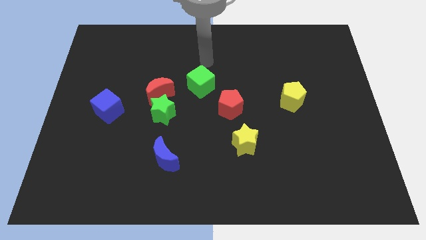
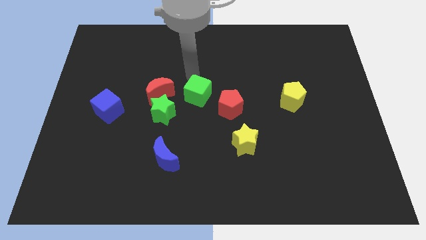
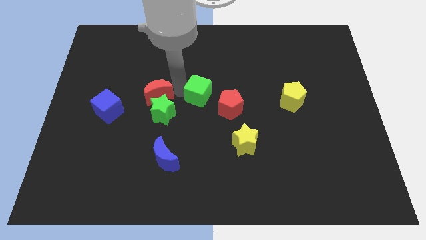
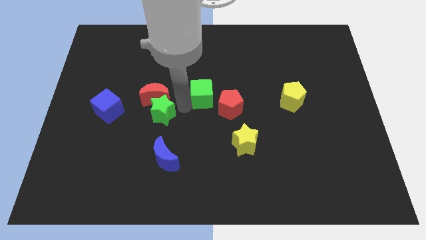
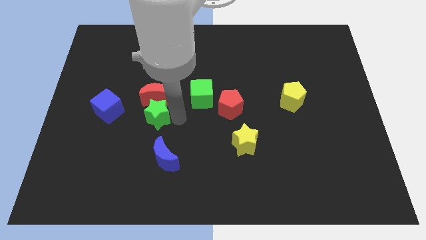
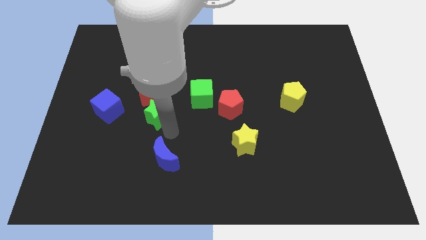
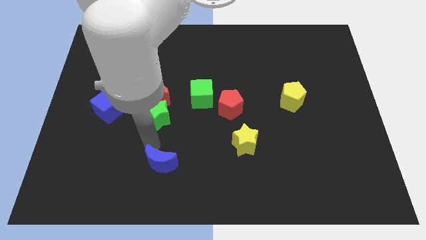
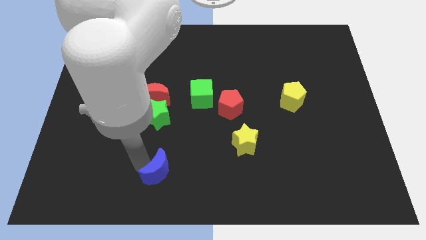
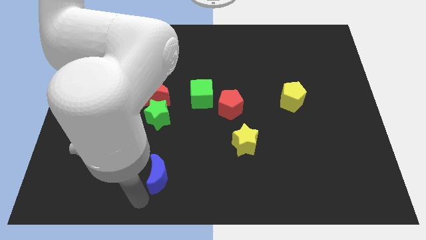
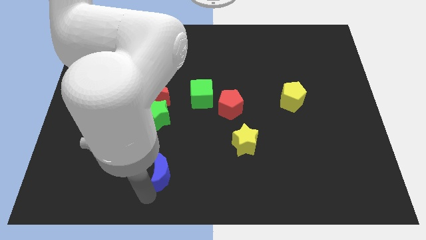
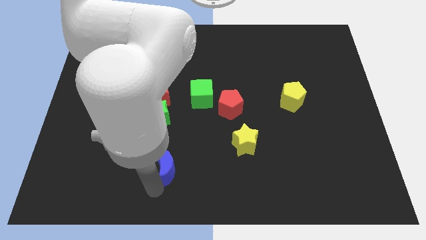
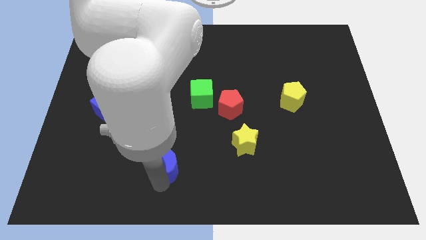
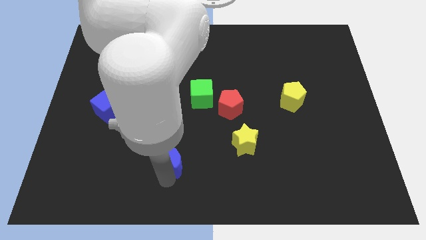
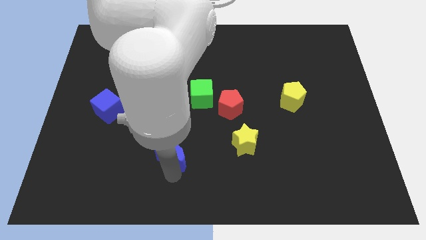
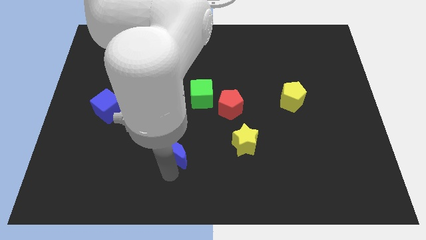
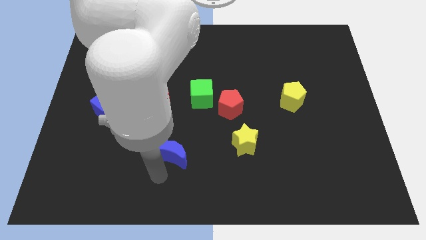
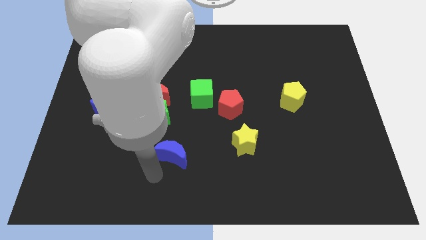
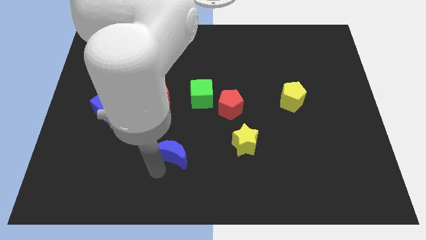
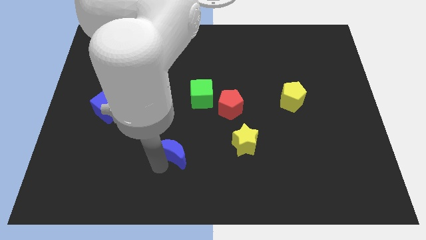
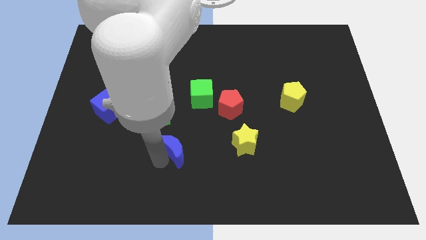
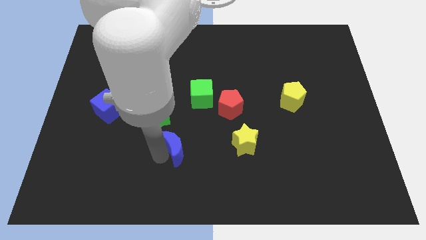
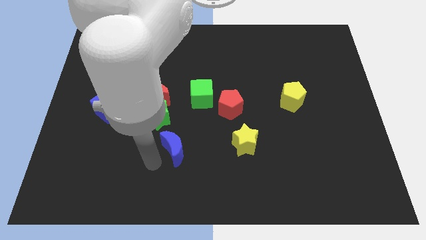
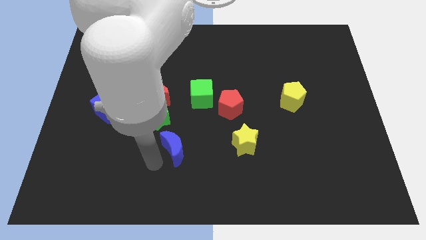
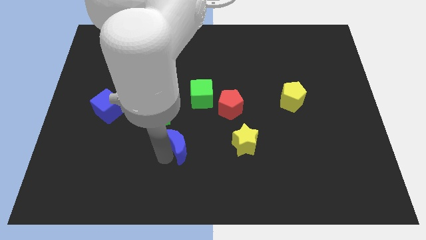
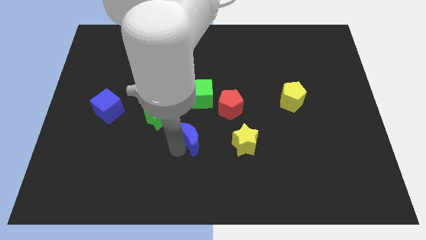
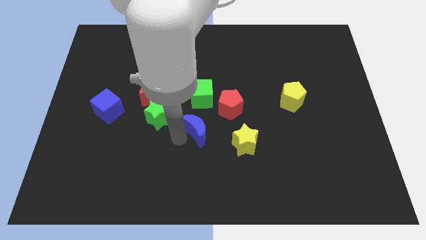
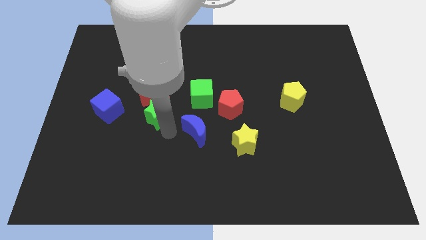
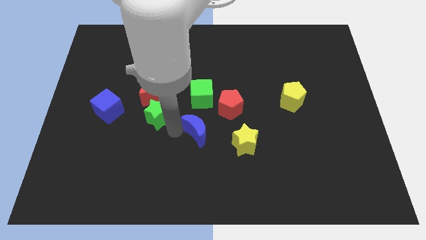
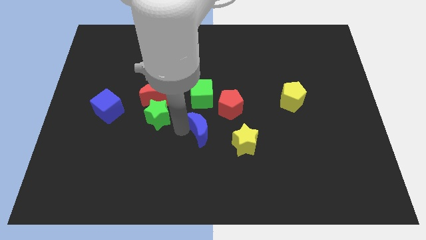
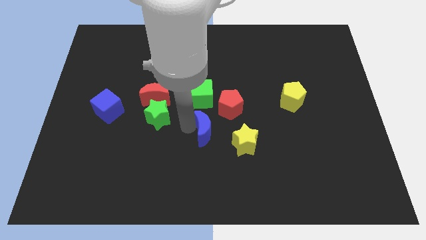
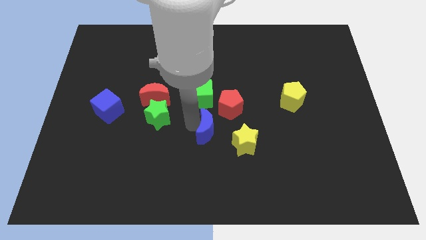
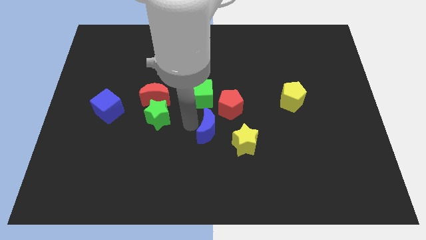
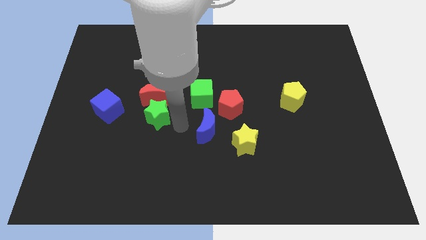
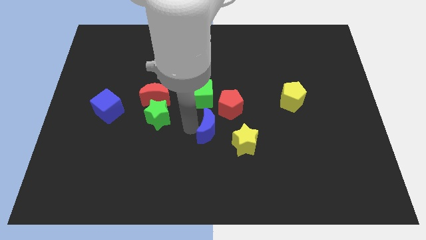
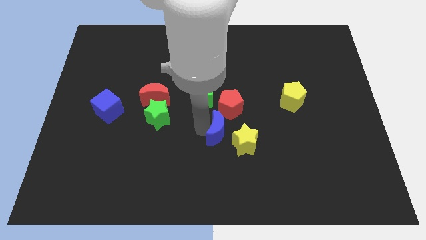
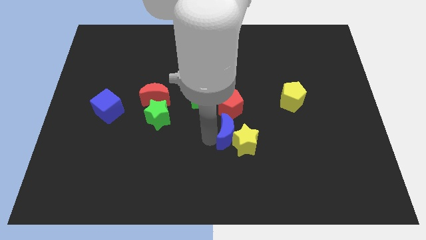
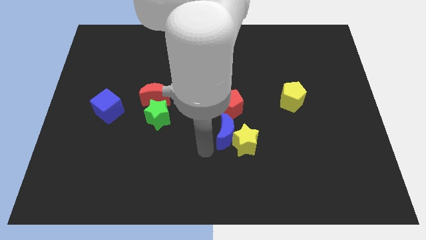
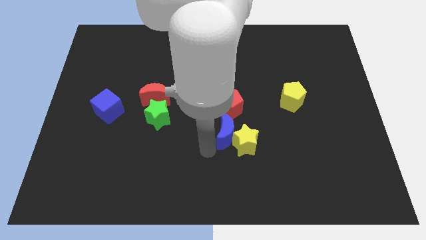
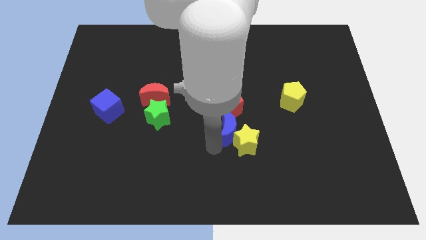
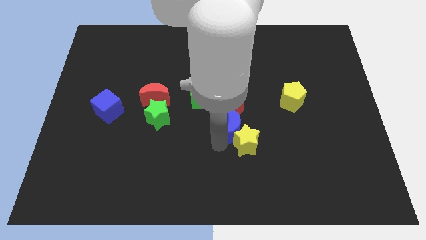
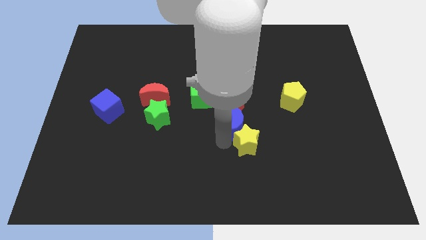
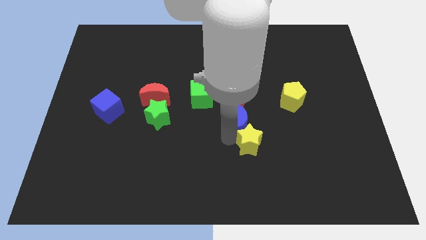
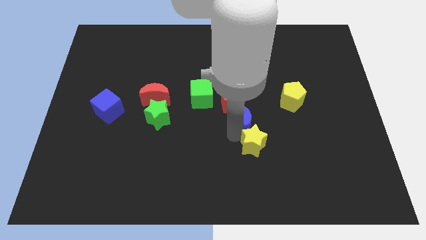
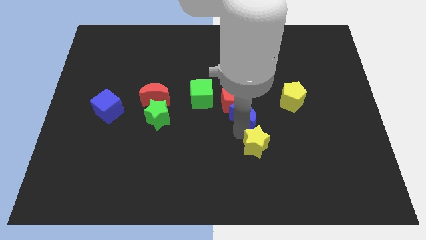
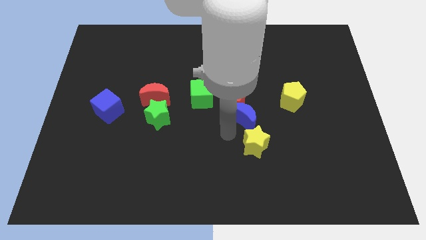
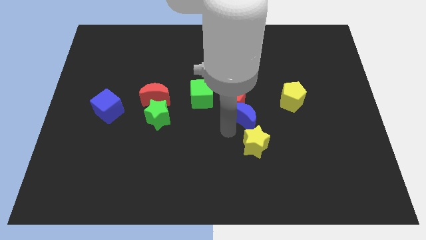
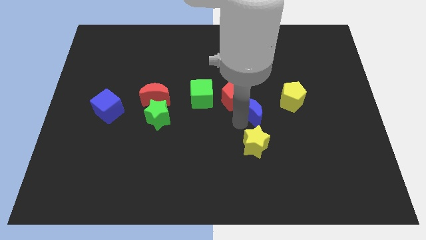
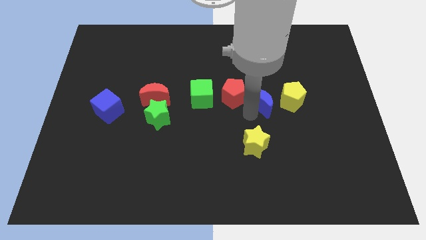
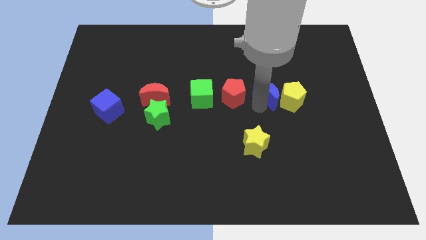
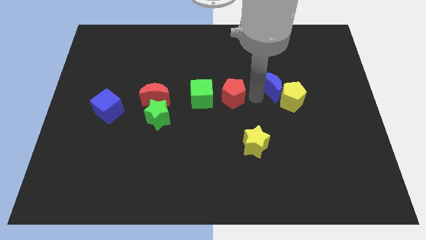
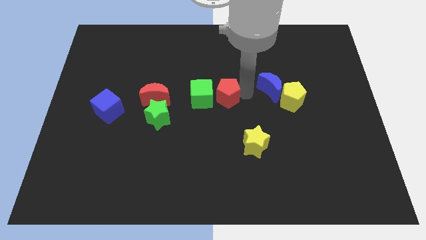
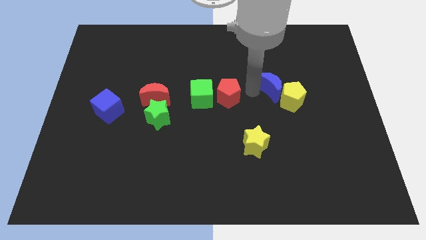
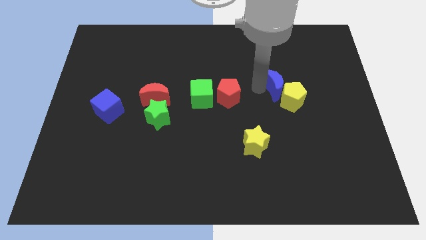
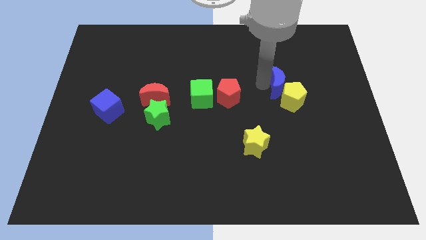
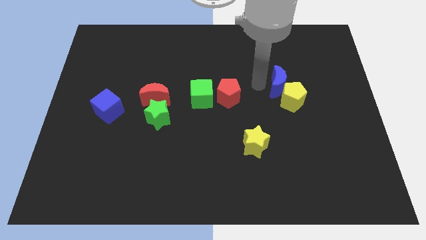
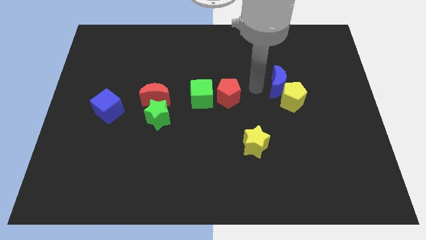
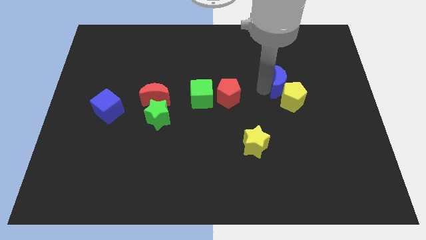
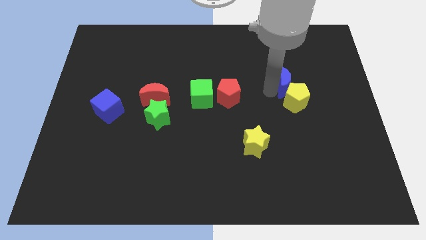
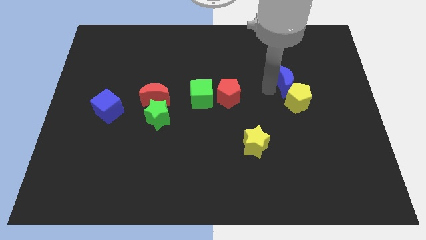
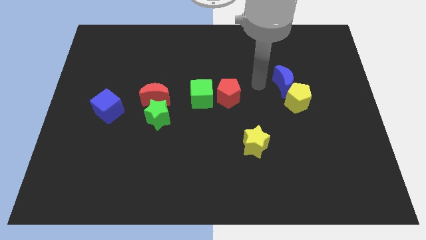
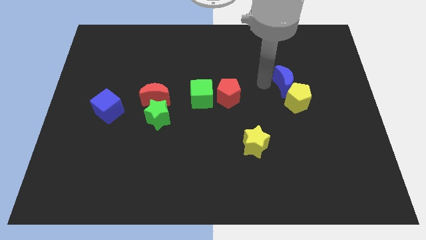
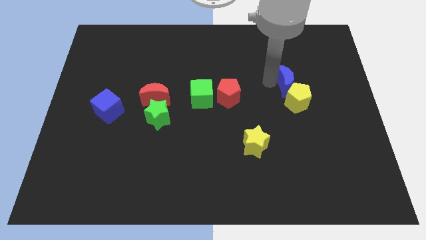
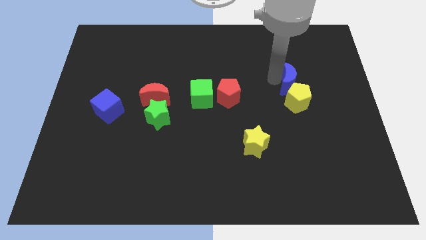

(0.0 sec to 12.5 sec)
push the blue moon to the top right of the yellow pentagon
